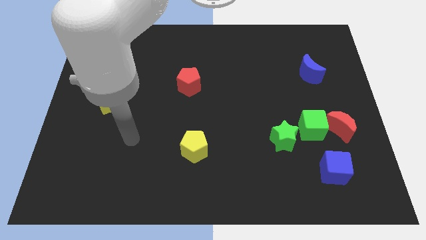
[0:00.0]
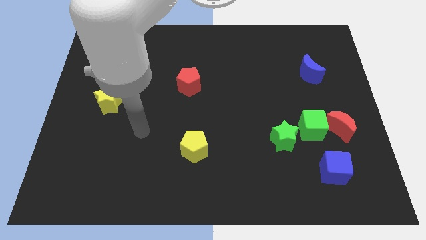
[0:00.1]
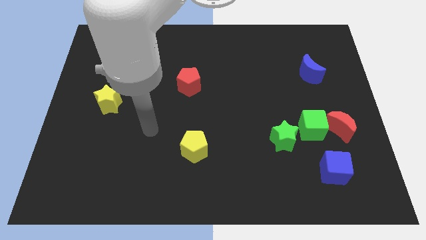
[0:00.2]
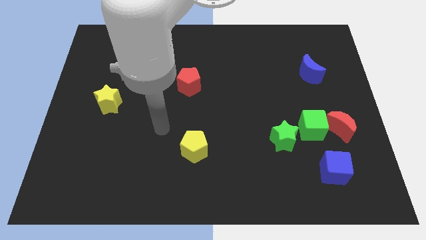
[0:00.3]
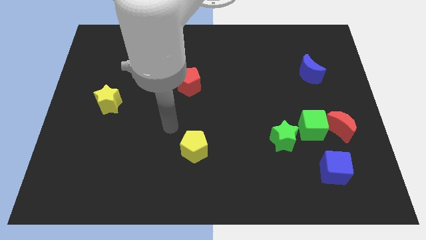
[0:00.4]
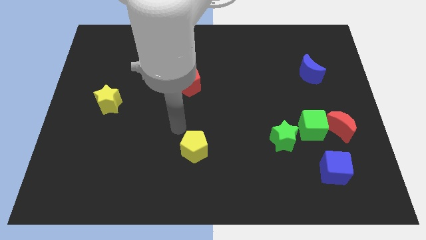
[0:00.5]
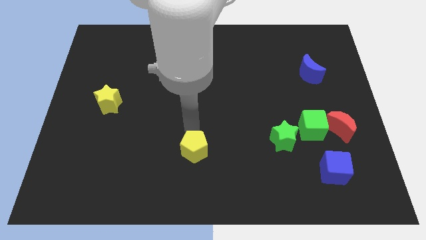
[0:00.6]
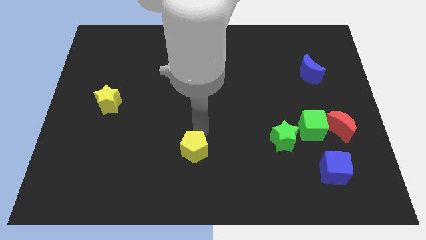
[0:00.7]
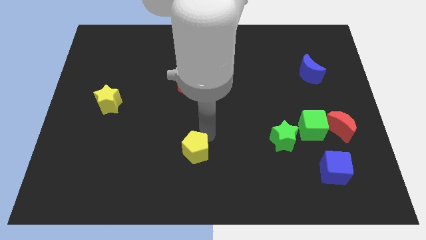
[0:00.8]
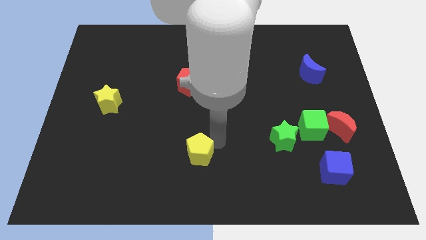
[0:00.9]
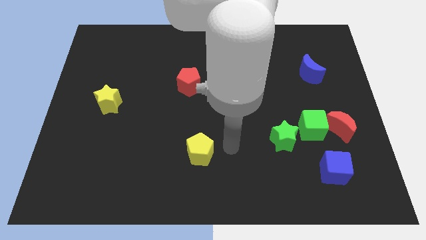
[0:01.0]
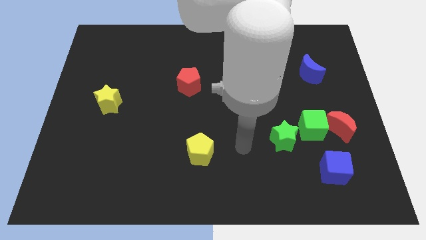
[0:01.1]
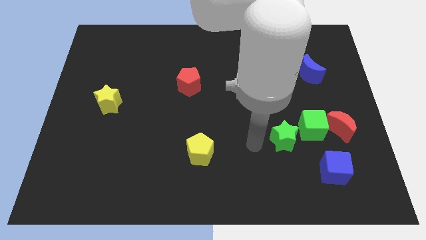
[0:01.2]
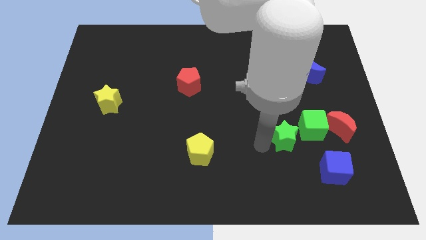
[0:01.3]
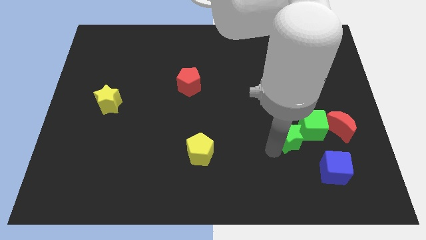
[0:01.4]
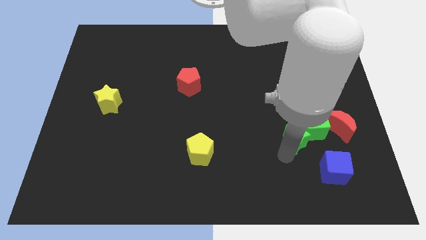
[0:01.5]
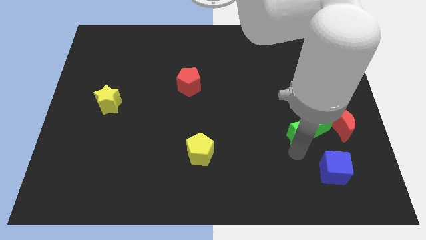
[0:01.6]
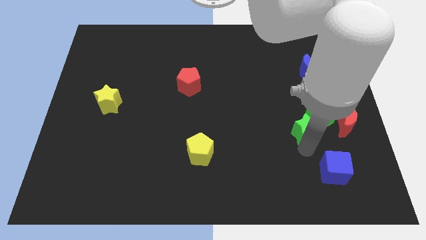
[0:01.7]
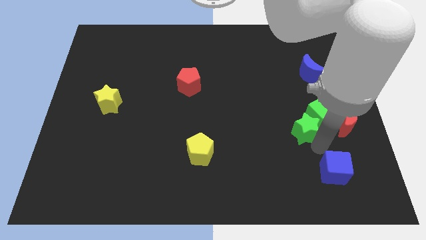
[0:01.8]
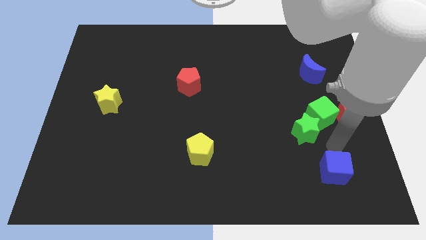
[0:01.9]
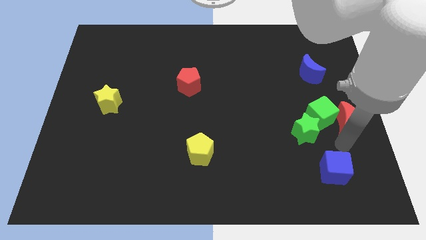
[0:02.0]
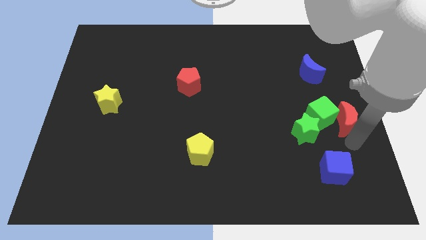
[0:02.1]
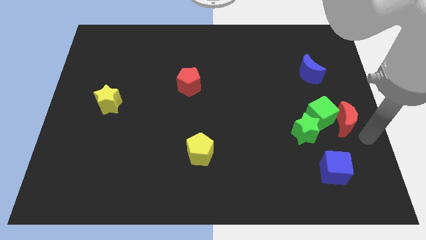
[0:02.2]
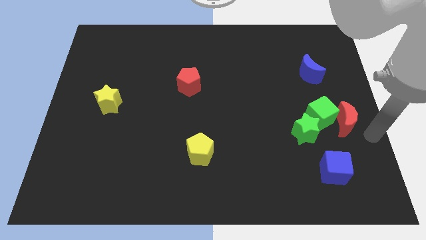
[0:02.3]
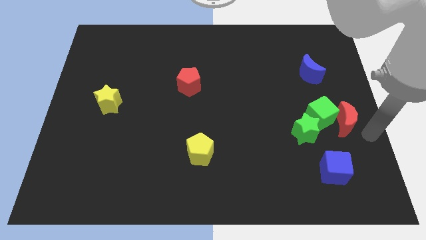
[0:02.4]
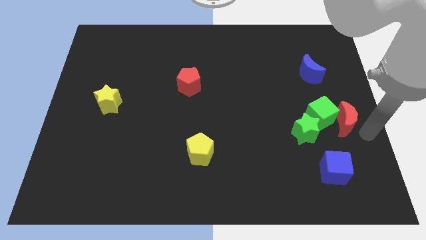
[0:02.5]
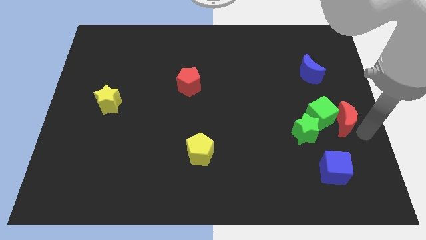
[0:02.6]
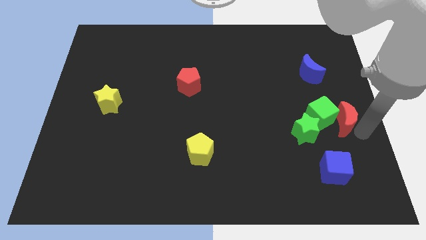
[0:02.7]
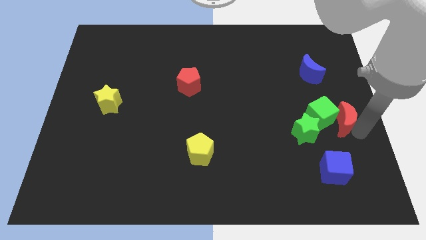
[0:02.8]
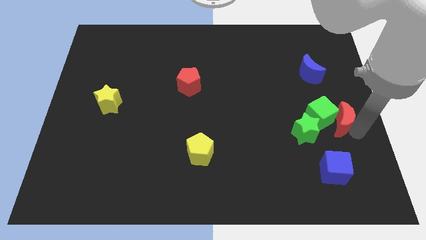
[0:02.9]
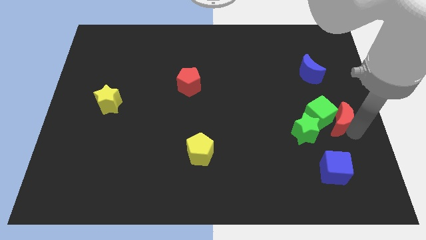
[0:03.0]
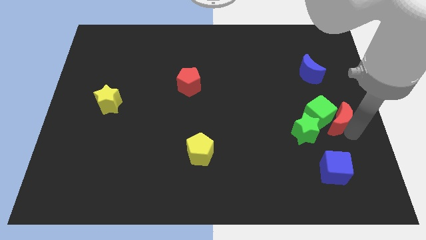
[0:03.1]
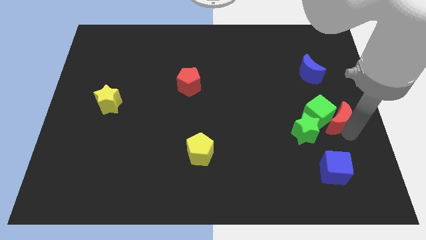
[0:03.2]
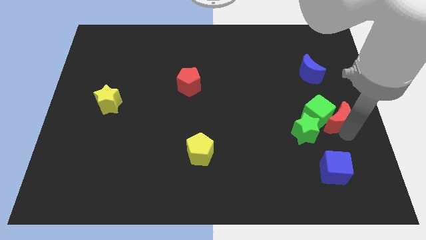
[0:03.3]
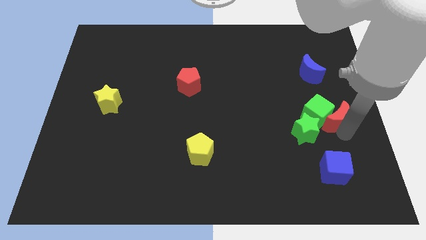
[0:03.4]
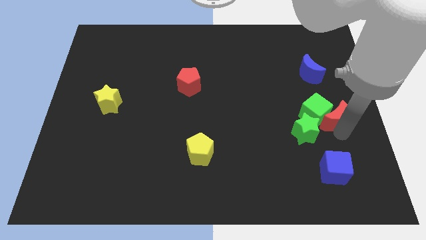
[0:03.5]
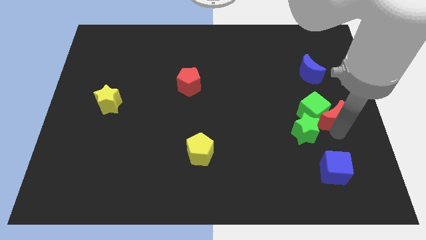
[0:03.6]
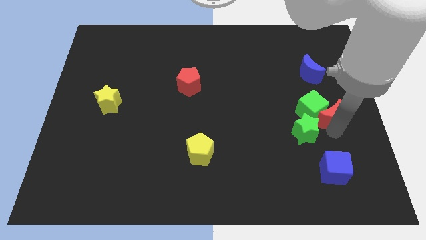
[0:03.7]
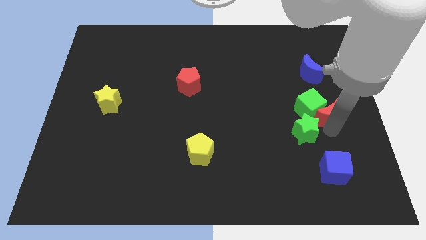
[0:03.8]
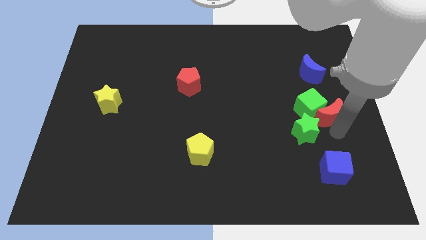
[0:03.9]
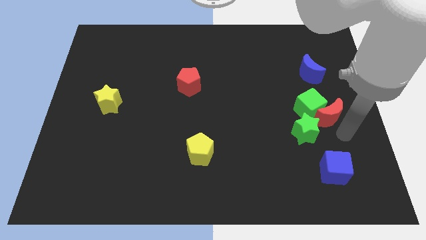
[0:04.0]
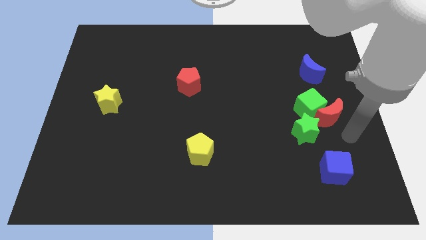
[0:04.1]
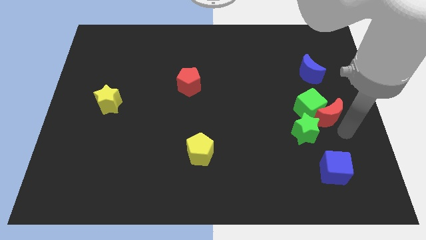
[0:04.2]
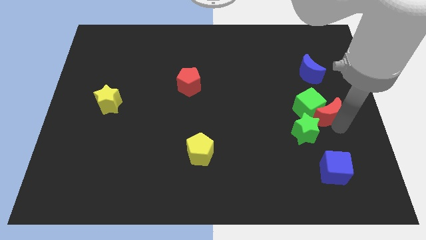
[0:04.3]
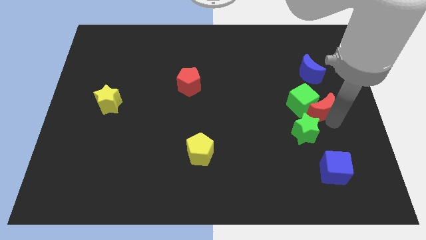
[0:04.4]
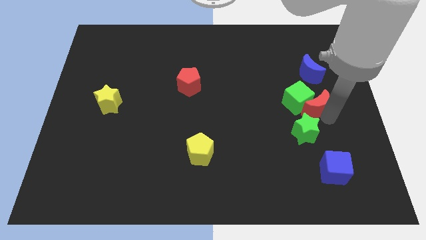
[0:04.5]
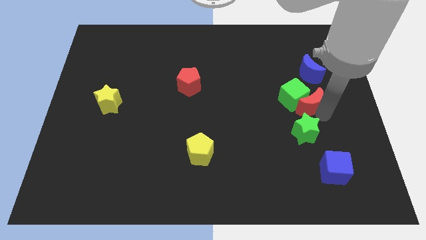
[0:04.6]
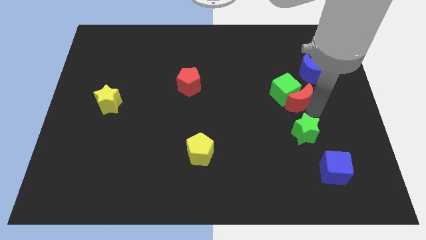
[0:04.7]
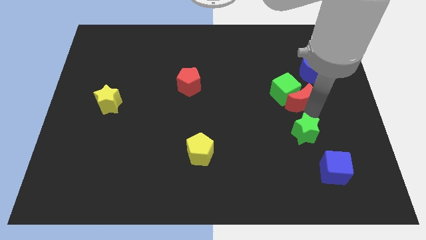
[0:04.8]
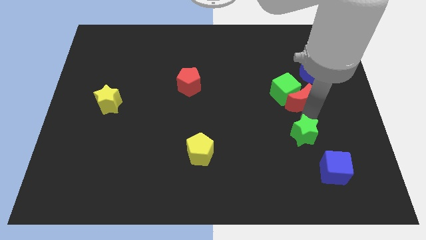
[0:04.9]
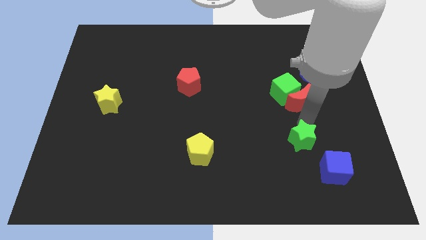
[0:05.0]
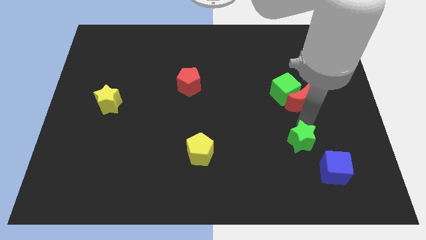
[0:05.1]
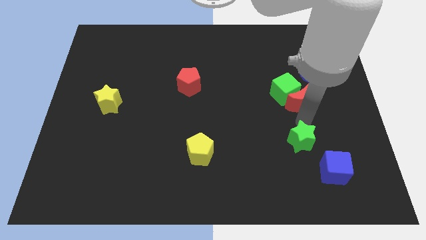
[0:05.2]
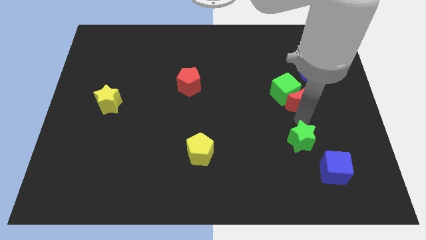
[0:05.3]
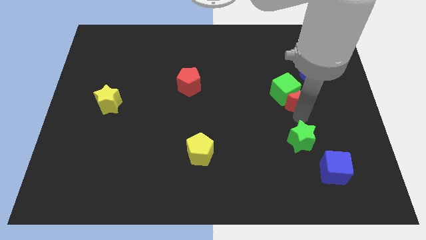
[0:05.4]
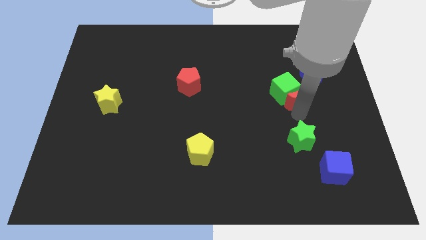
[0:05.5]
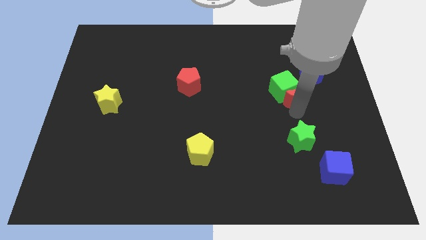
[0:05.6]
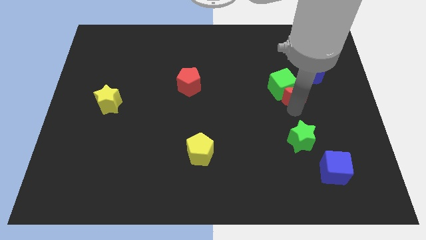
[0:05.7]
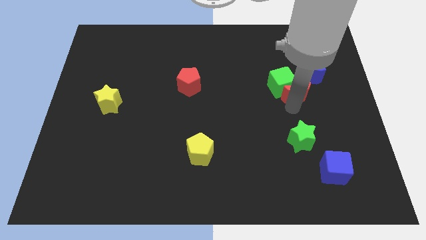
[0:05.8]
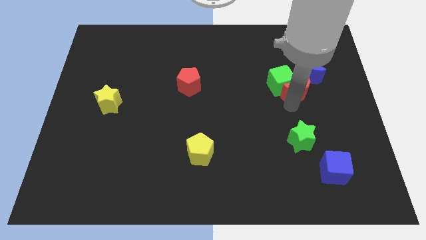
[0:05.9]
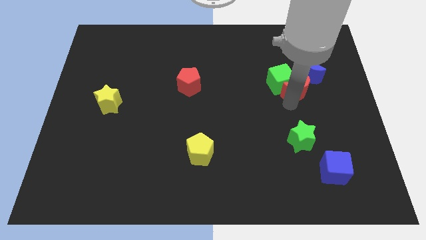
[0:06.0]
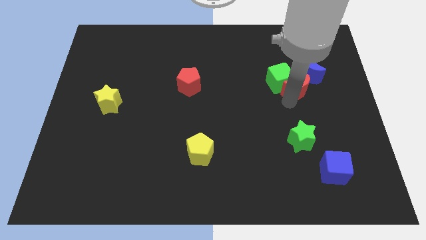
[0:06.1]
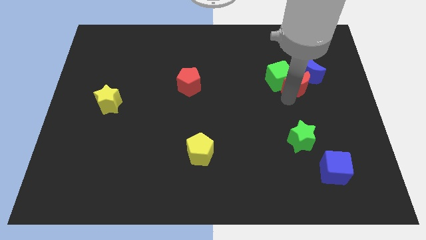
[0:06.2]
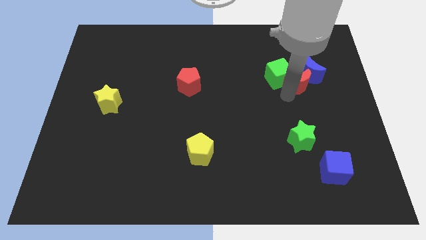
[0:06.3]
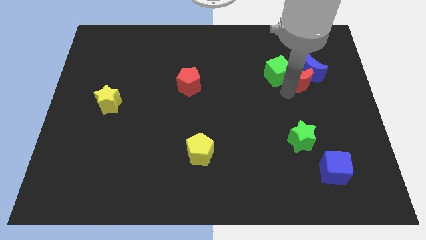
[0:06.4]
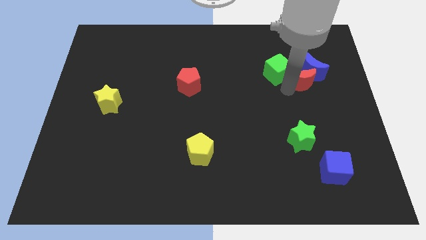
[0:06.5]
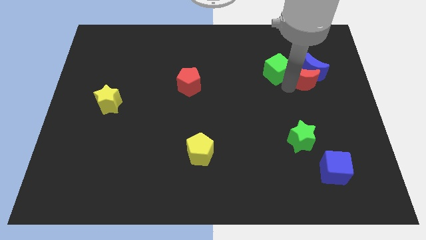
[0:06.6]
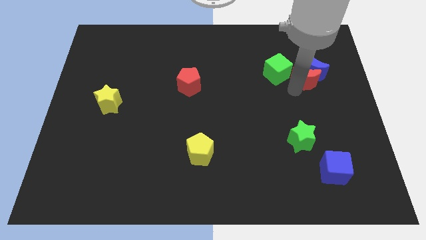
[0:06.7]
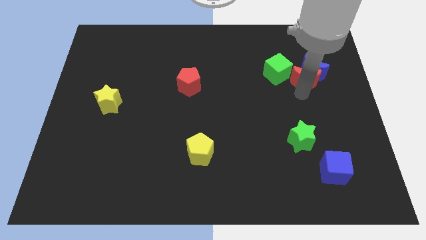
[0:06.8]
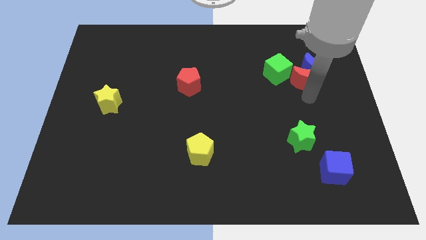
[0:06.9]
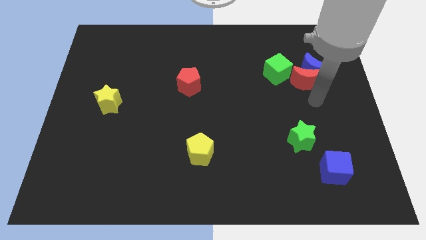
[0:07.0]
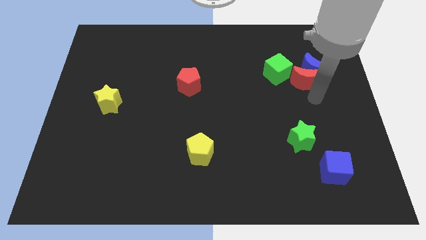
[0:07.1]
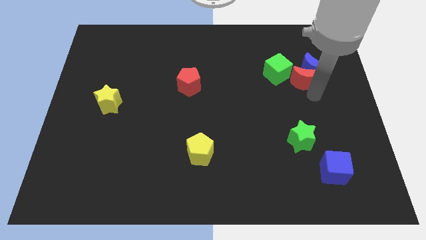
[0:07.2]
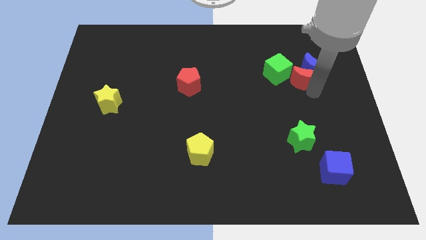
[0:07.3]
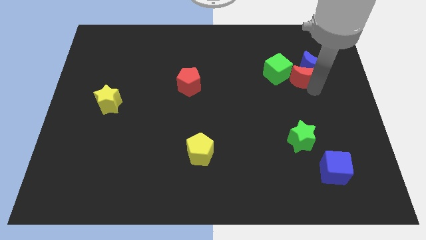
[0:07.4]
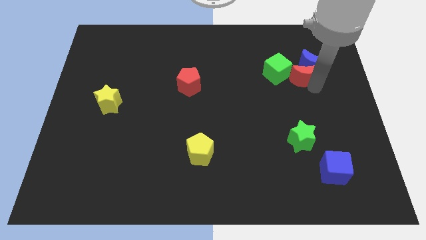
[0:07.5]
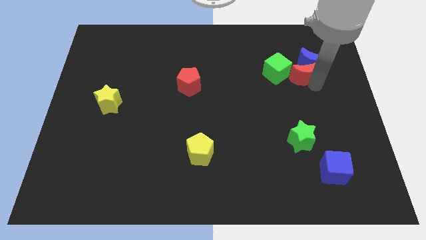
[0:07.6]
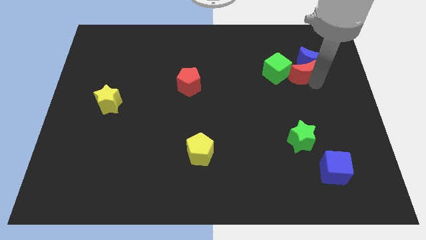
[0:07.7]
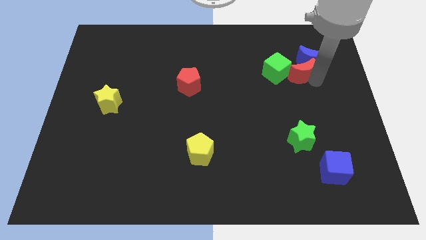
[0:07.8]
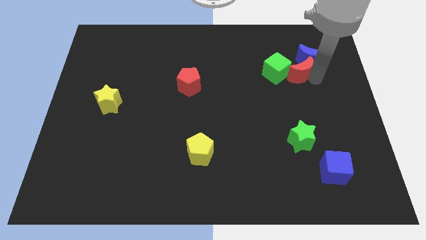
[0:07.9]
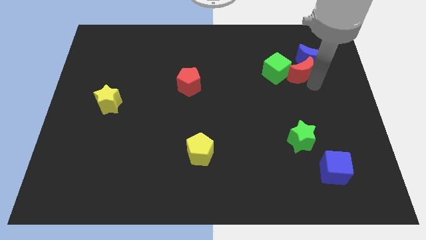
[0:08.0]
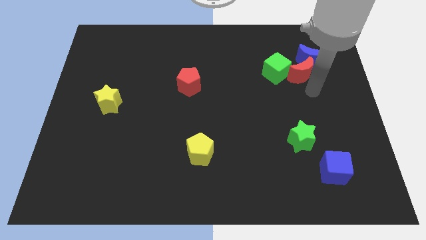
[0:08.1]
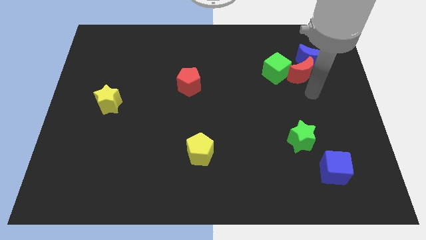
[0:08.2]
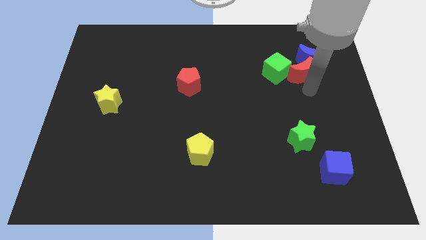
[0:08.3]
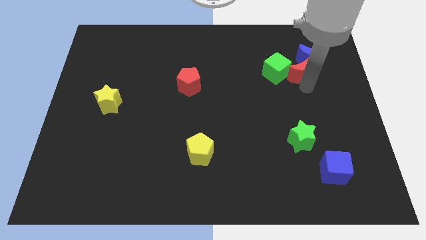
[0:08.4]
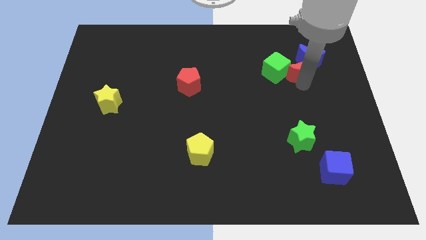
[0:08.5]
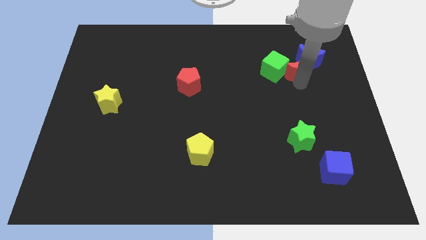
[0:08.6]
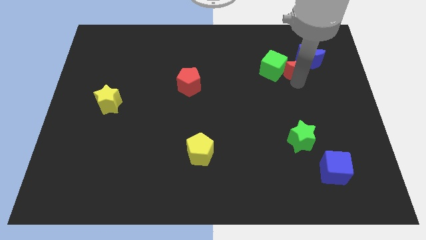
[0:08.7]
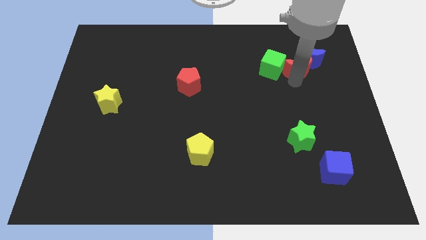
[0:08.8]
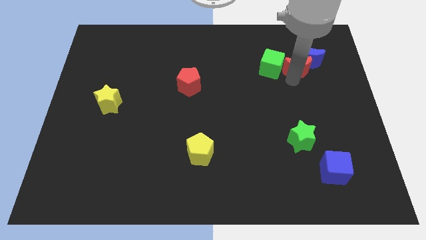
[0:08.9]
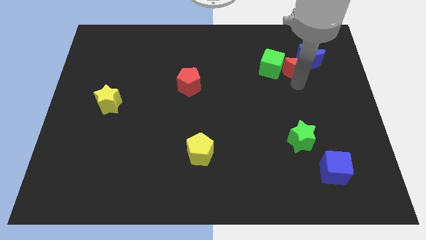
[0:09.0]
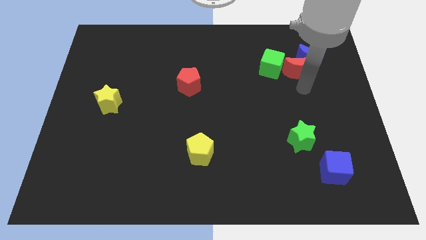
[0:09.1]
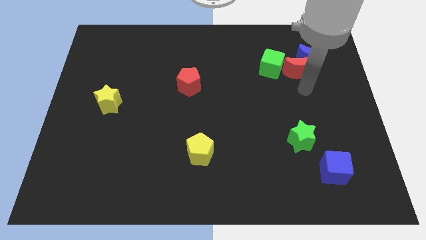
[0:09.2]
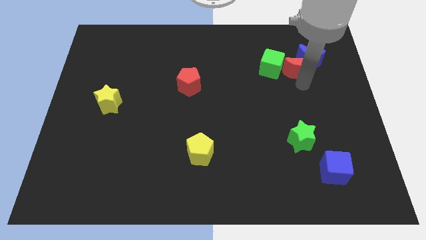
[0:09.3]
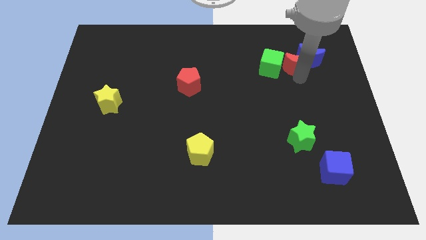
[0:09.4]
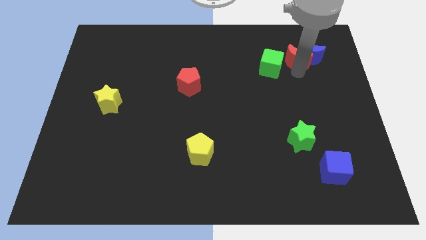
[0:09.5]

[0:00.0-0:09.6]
move the red moon to the top left of the blue moon
